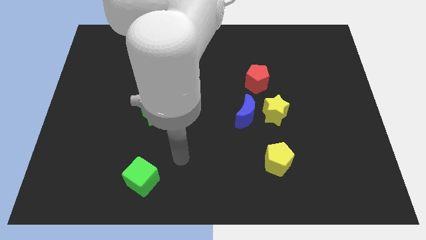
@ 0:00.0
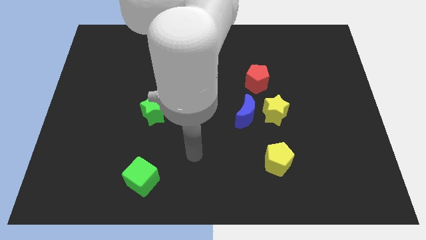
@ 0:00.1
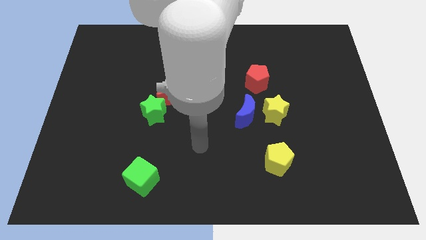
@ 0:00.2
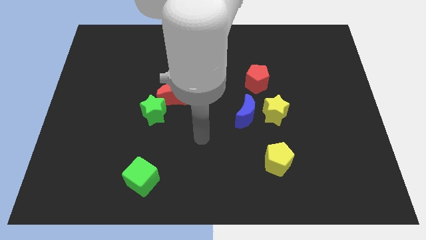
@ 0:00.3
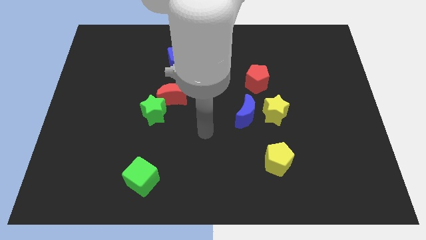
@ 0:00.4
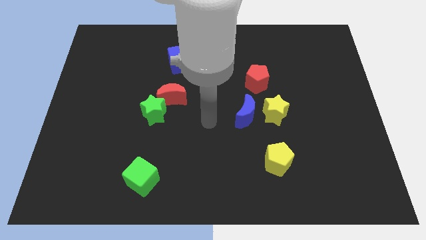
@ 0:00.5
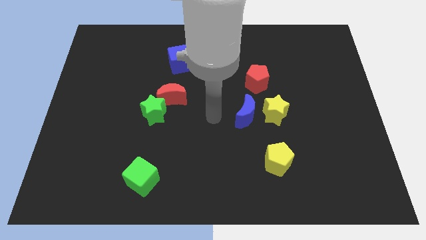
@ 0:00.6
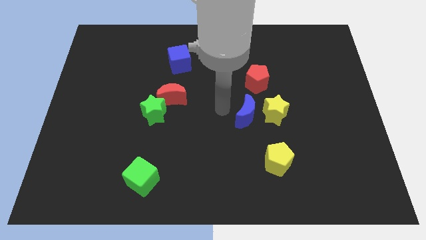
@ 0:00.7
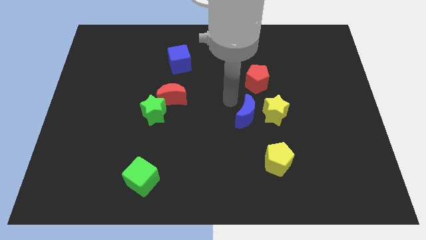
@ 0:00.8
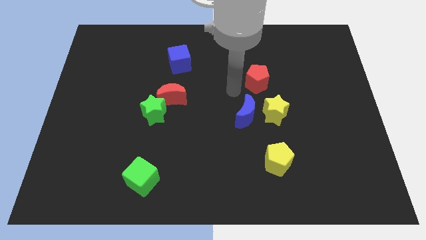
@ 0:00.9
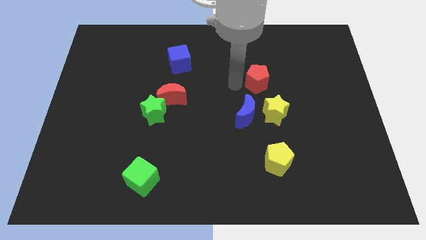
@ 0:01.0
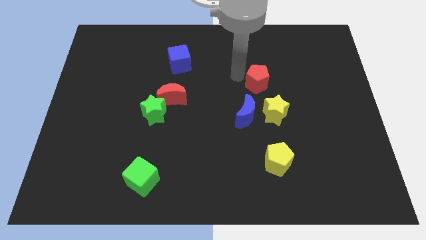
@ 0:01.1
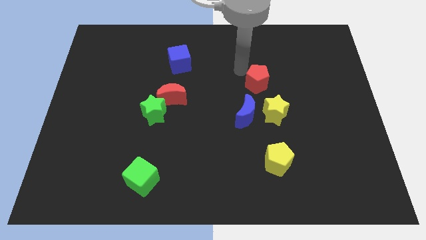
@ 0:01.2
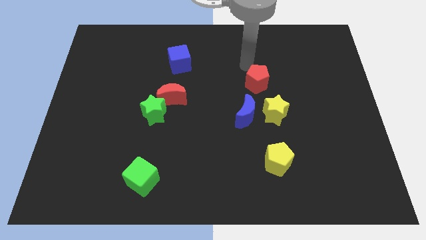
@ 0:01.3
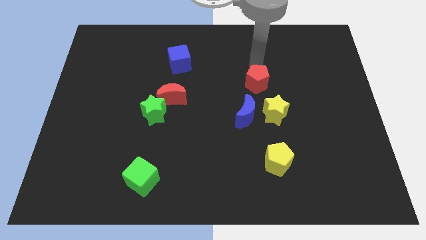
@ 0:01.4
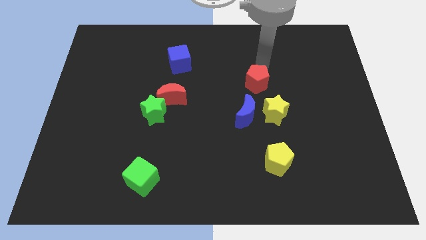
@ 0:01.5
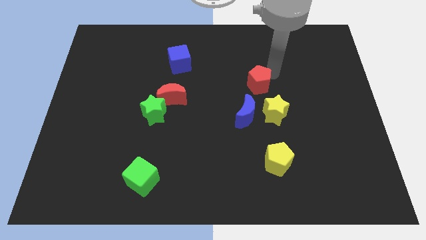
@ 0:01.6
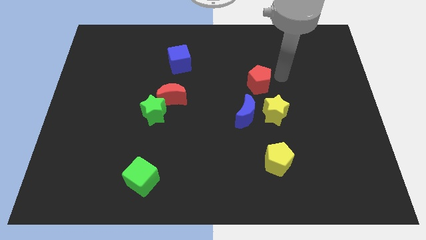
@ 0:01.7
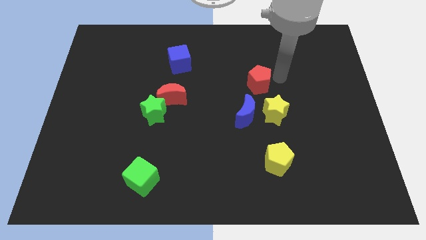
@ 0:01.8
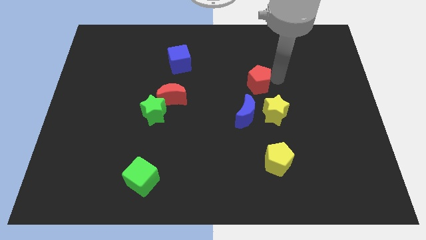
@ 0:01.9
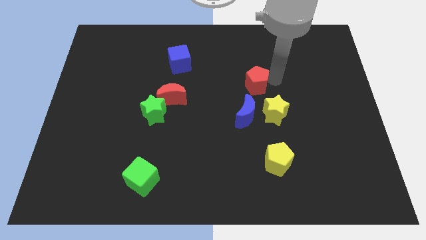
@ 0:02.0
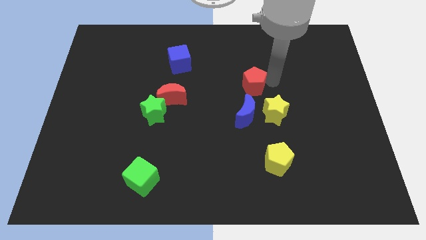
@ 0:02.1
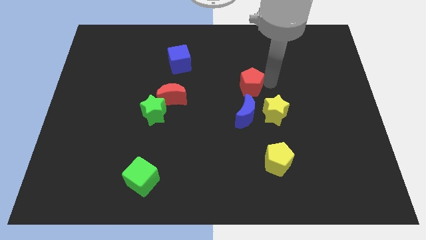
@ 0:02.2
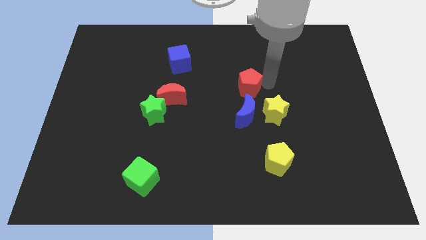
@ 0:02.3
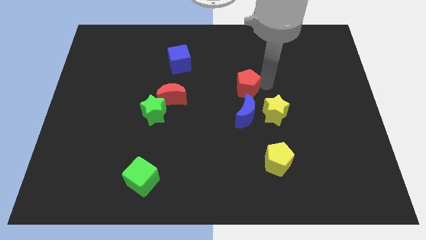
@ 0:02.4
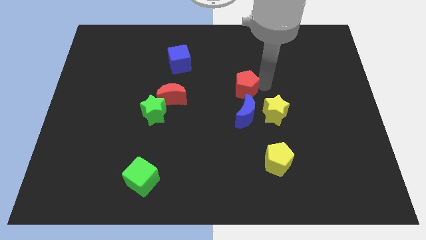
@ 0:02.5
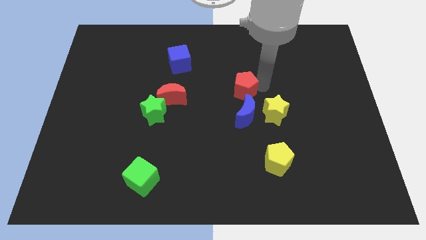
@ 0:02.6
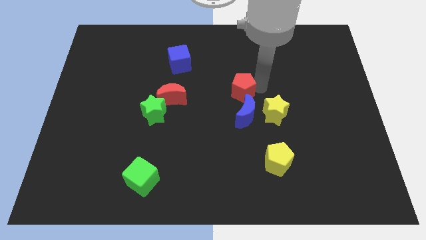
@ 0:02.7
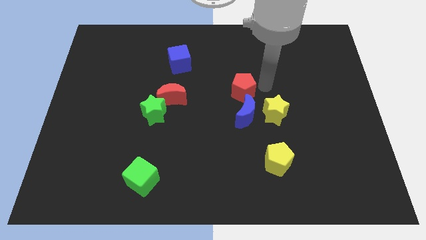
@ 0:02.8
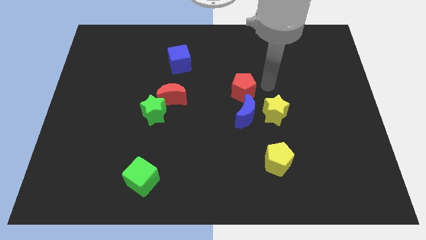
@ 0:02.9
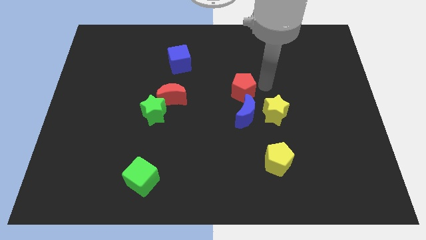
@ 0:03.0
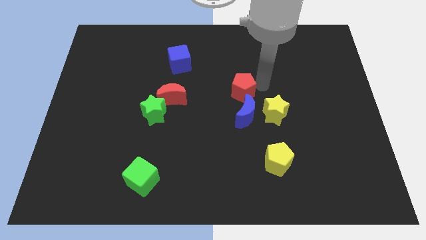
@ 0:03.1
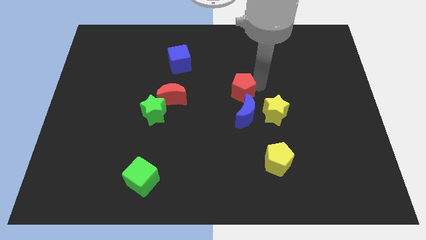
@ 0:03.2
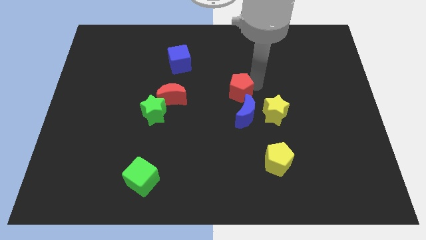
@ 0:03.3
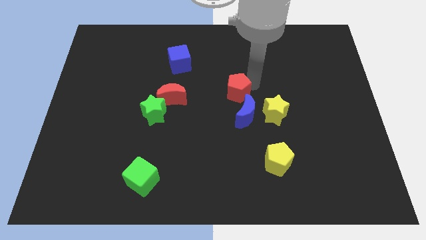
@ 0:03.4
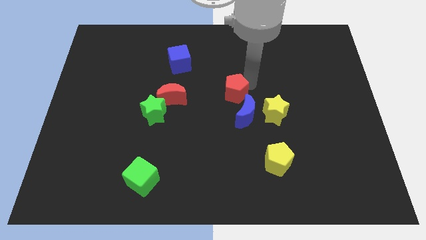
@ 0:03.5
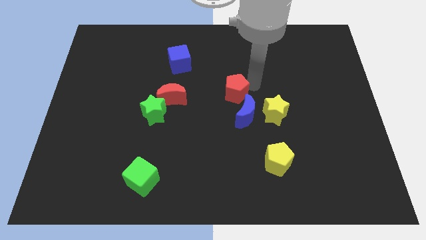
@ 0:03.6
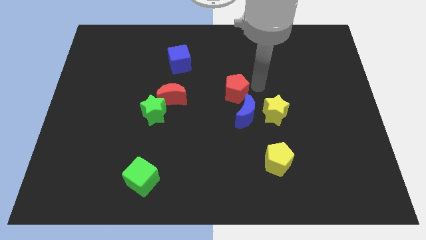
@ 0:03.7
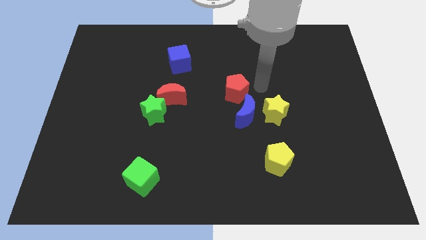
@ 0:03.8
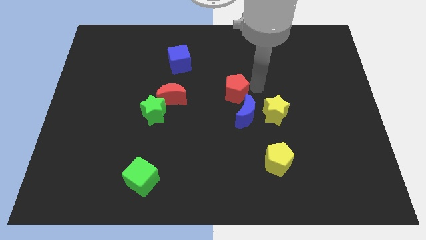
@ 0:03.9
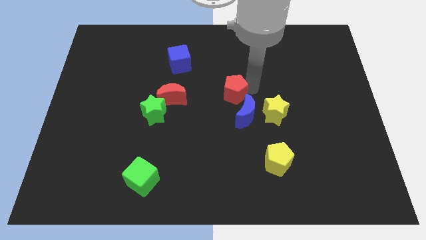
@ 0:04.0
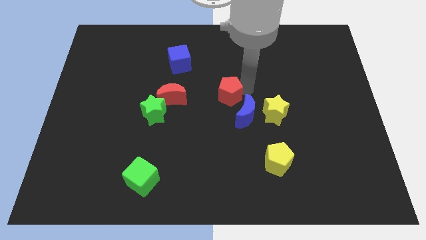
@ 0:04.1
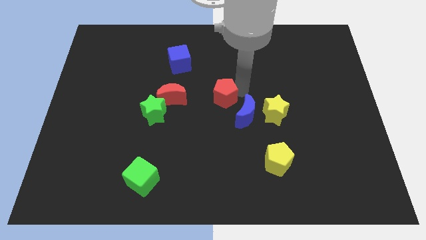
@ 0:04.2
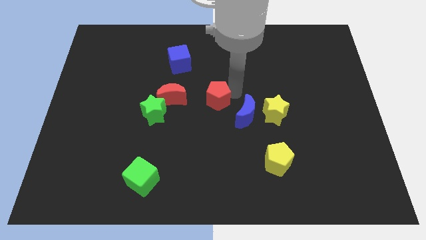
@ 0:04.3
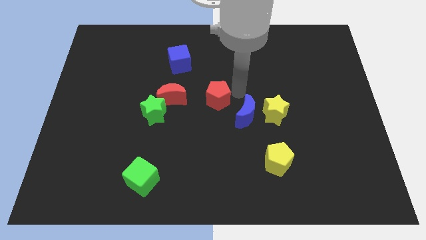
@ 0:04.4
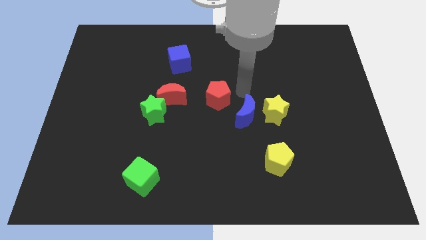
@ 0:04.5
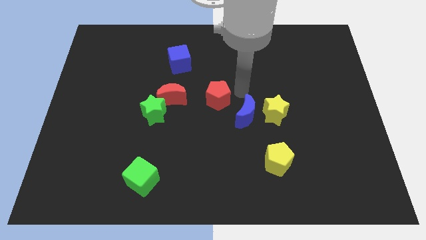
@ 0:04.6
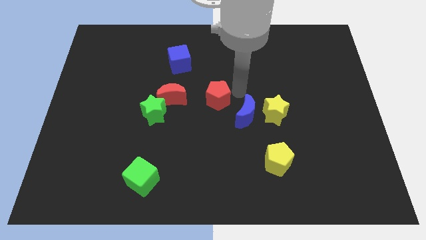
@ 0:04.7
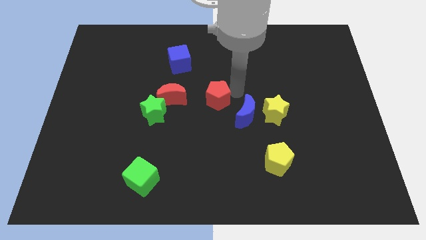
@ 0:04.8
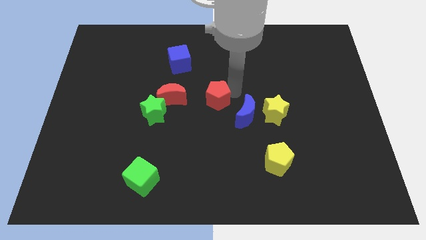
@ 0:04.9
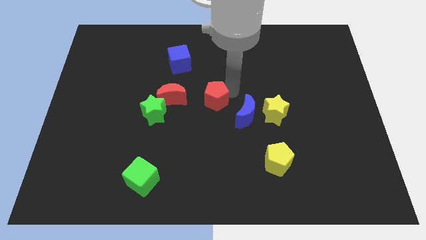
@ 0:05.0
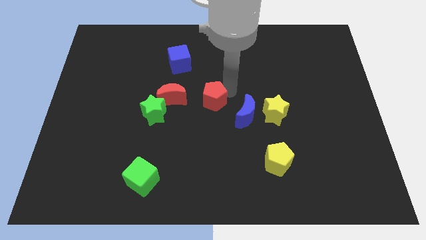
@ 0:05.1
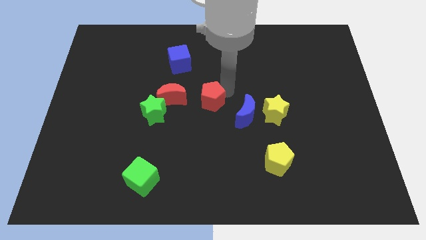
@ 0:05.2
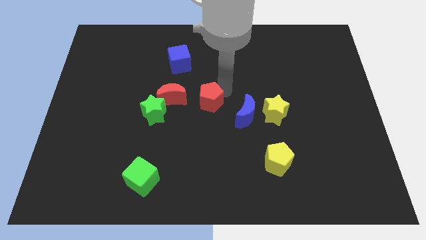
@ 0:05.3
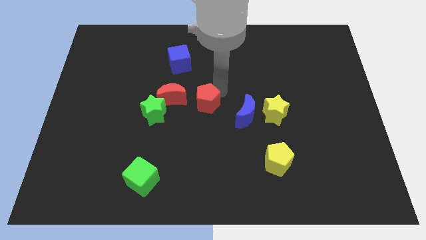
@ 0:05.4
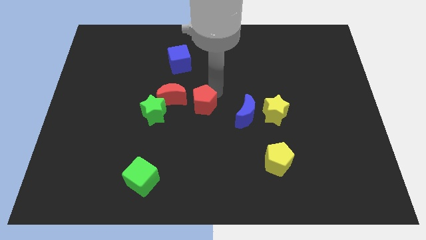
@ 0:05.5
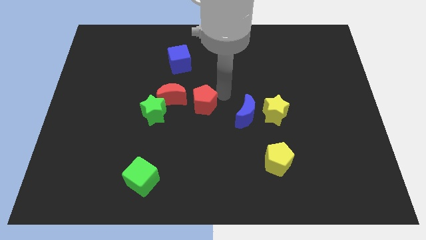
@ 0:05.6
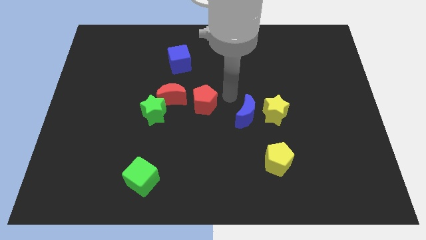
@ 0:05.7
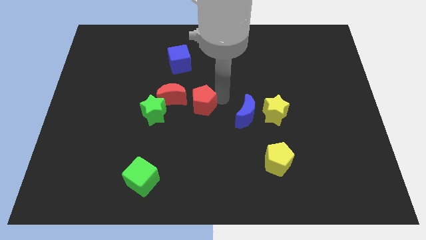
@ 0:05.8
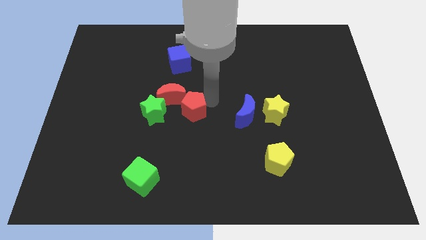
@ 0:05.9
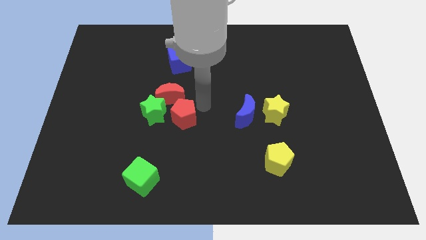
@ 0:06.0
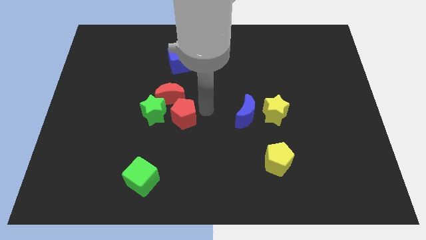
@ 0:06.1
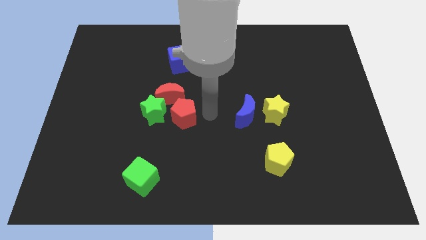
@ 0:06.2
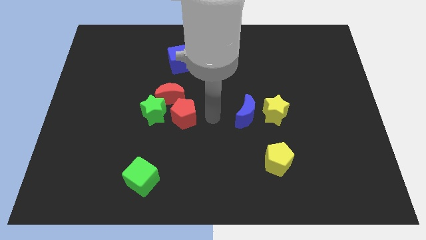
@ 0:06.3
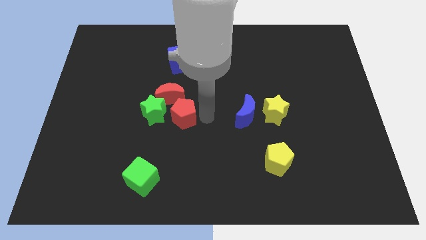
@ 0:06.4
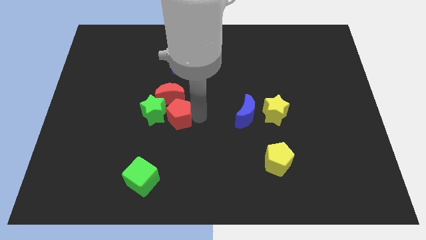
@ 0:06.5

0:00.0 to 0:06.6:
move the red pentagon close to the green star

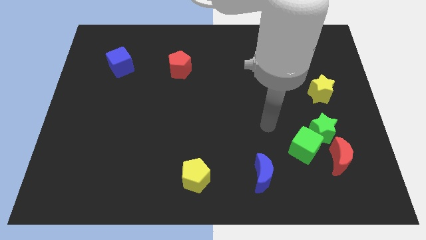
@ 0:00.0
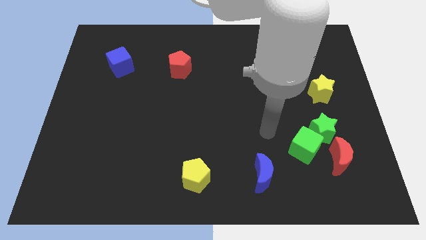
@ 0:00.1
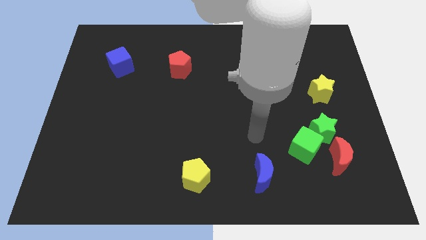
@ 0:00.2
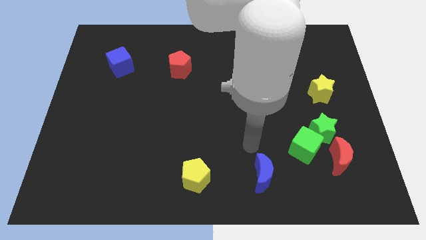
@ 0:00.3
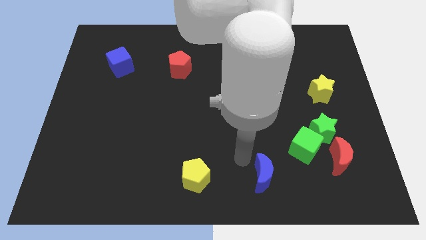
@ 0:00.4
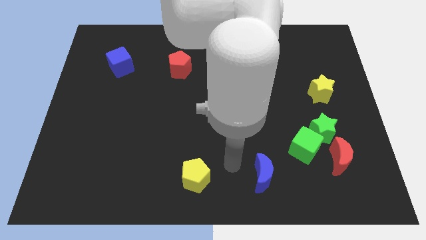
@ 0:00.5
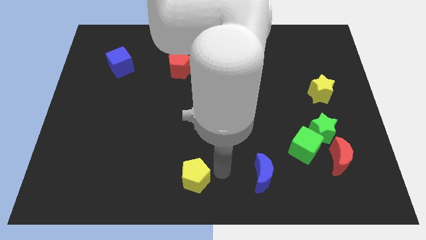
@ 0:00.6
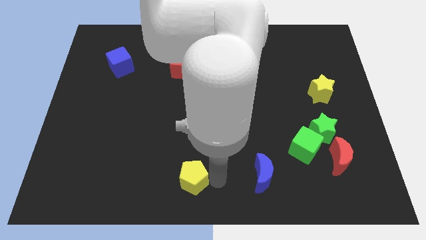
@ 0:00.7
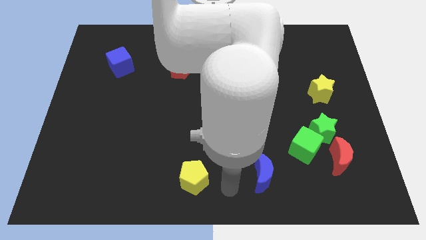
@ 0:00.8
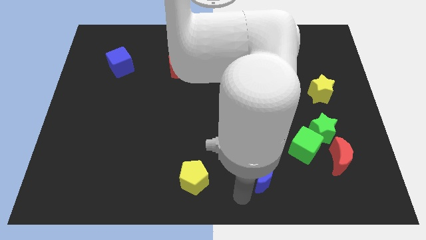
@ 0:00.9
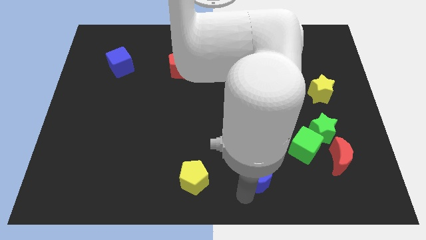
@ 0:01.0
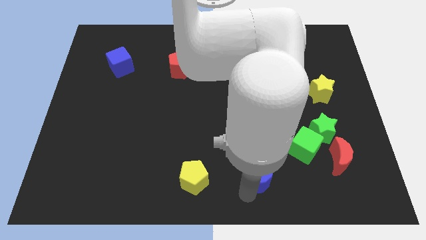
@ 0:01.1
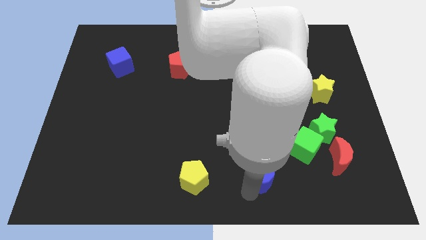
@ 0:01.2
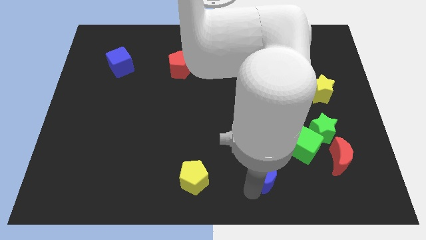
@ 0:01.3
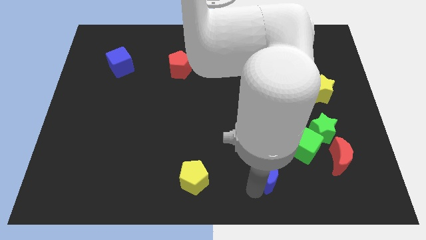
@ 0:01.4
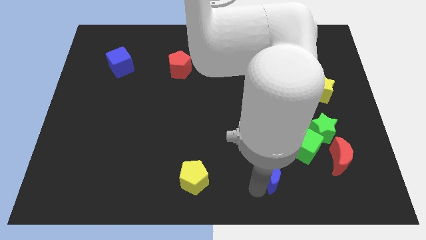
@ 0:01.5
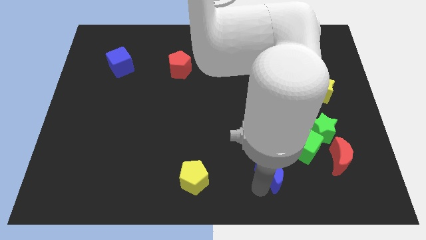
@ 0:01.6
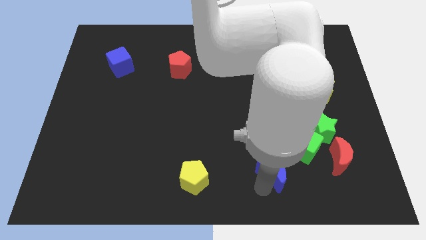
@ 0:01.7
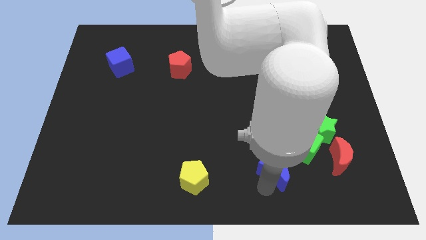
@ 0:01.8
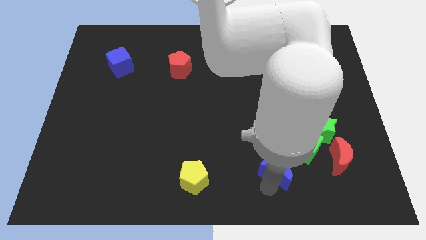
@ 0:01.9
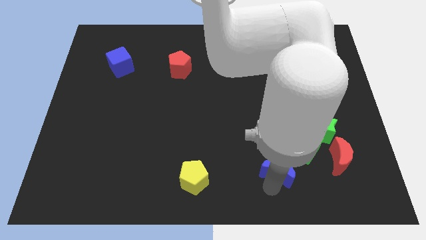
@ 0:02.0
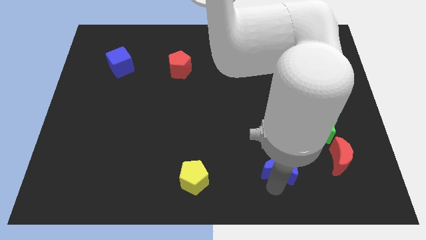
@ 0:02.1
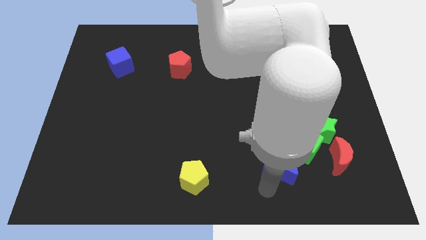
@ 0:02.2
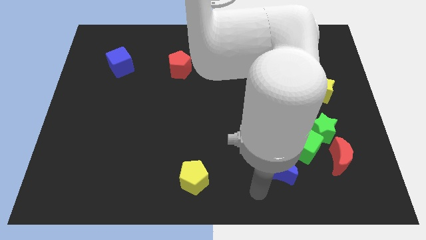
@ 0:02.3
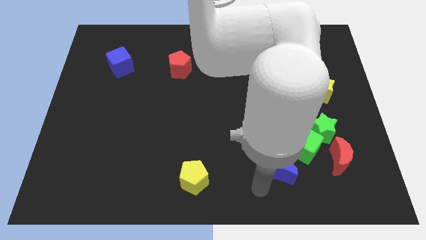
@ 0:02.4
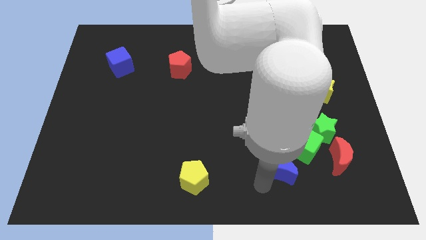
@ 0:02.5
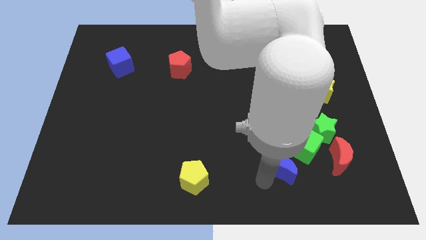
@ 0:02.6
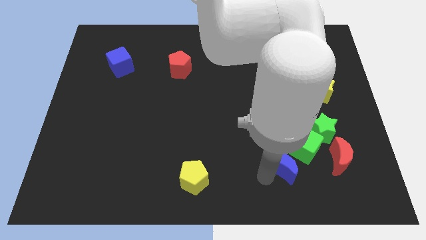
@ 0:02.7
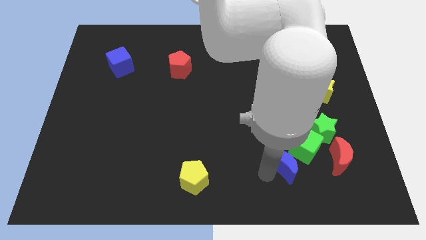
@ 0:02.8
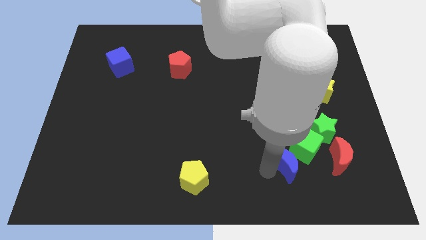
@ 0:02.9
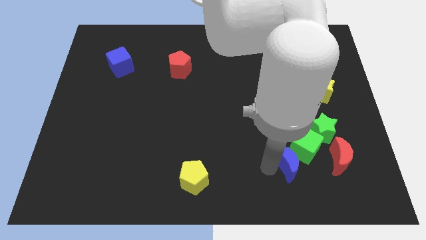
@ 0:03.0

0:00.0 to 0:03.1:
slide the blue moon next to the green cube
